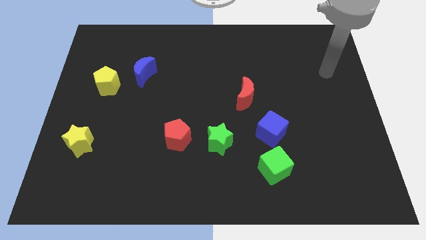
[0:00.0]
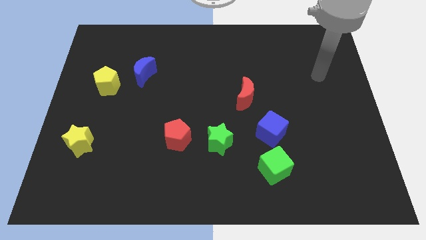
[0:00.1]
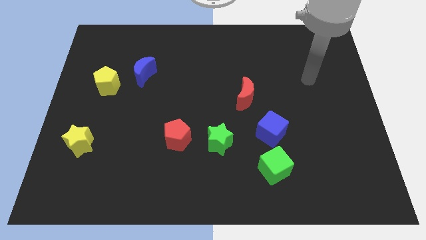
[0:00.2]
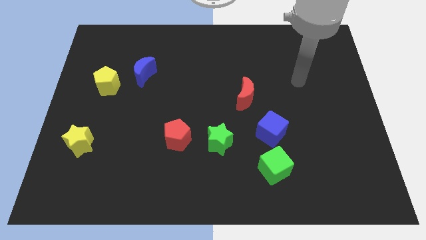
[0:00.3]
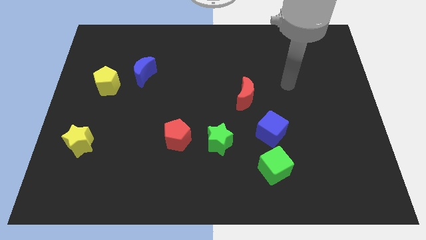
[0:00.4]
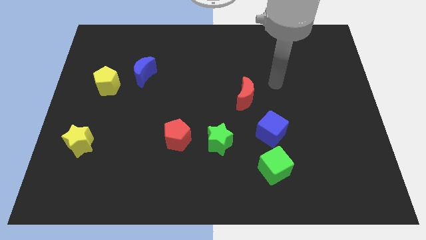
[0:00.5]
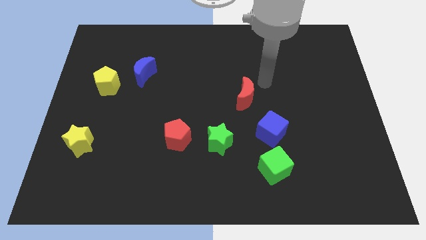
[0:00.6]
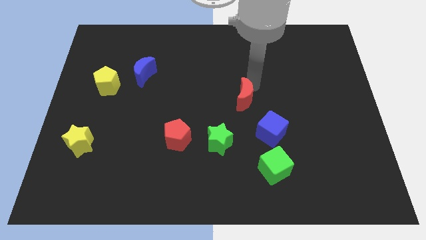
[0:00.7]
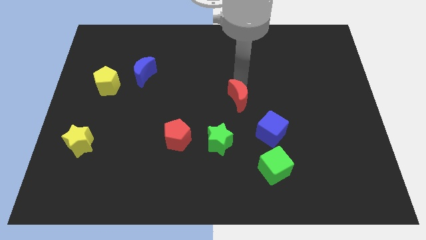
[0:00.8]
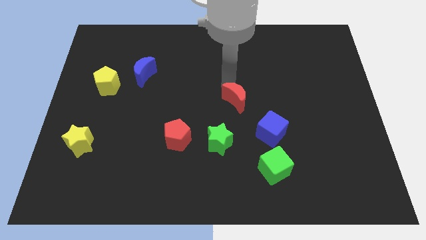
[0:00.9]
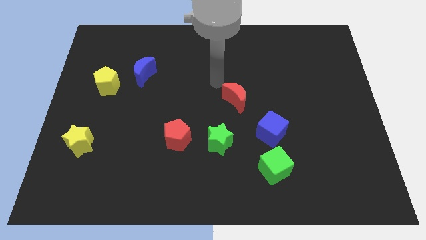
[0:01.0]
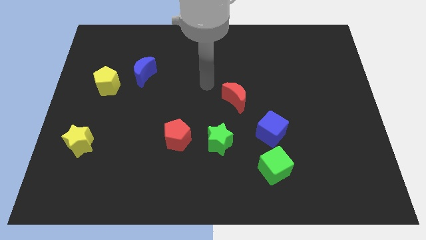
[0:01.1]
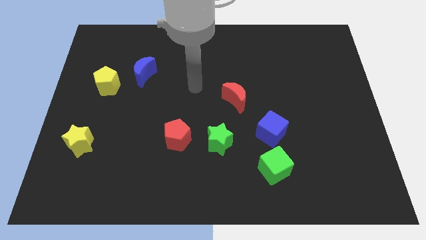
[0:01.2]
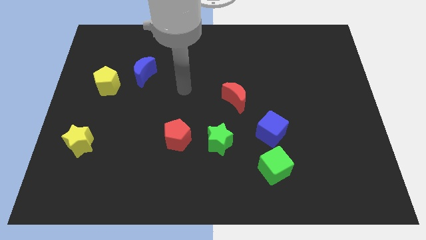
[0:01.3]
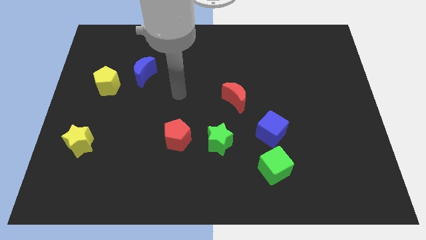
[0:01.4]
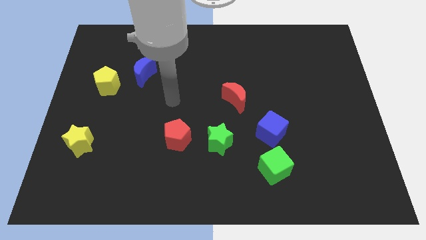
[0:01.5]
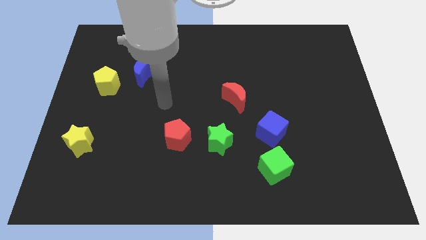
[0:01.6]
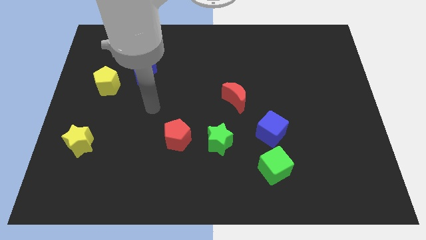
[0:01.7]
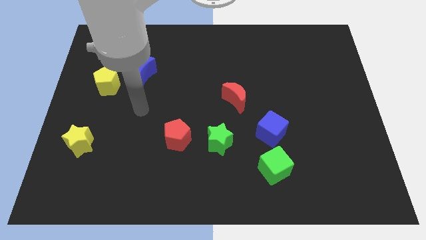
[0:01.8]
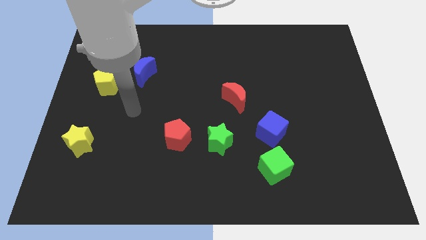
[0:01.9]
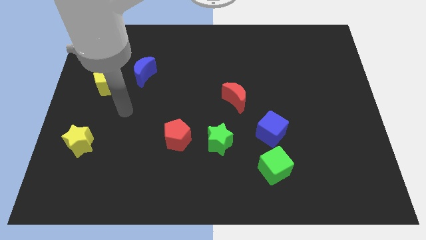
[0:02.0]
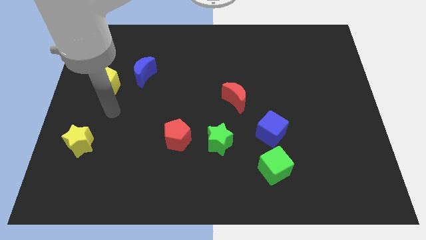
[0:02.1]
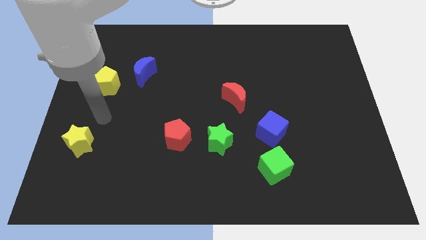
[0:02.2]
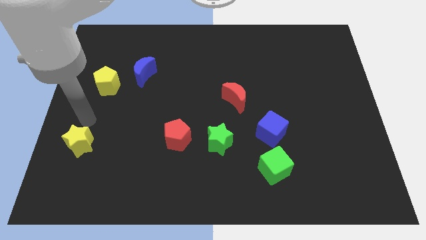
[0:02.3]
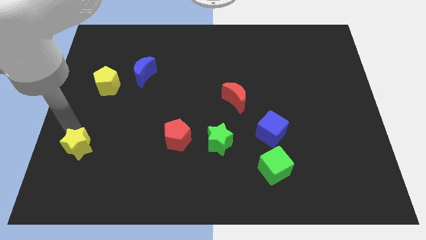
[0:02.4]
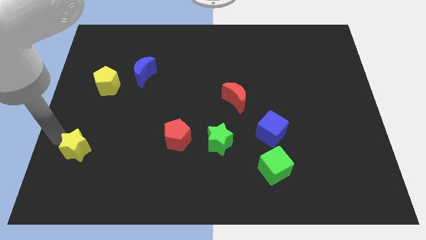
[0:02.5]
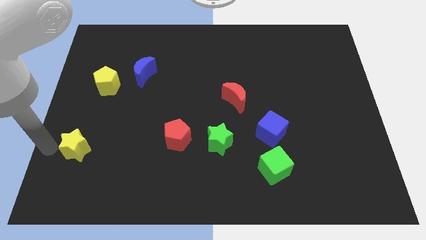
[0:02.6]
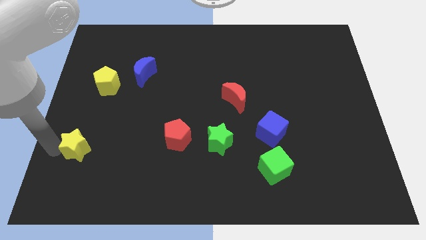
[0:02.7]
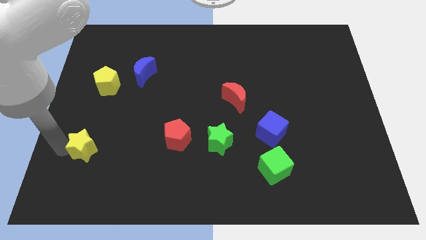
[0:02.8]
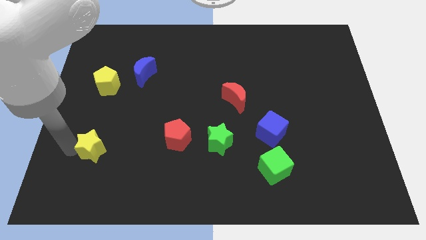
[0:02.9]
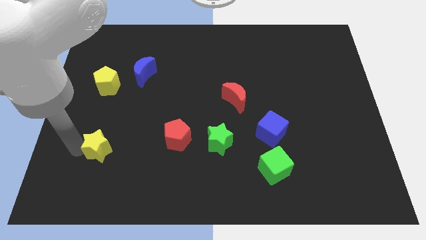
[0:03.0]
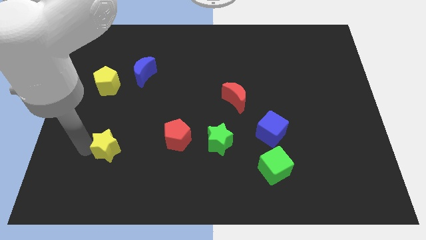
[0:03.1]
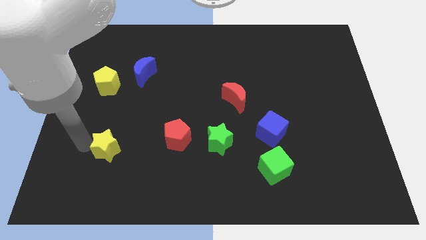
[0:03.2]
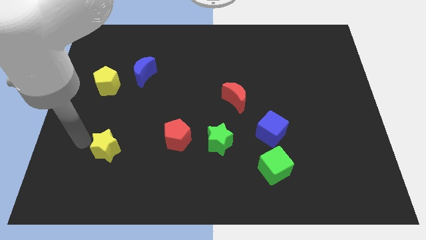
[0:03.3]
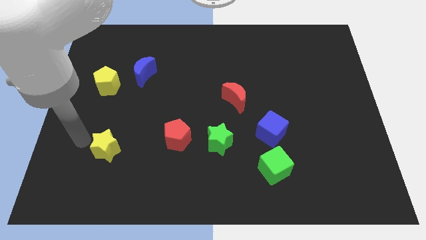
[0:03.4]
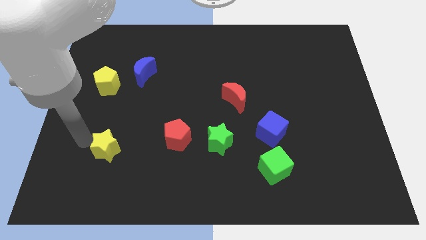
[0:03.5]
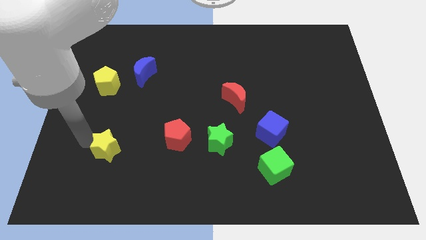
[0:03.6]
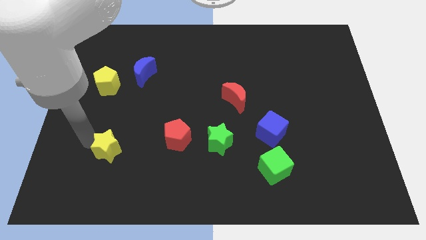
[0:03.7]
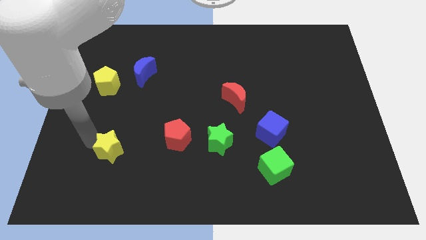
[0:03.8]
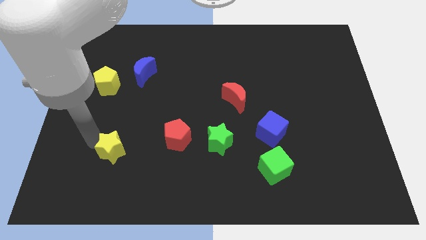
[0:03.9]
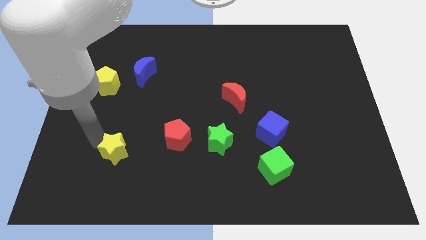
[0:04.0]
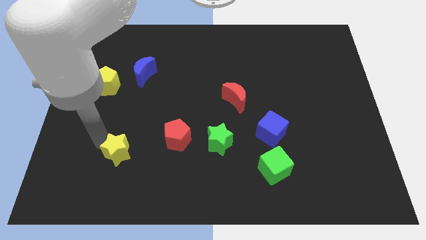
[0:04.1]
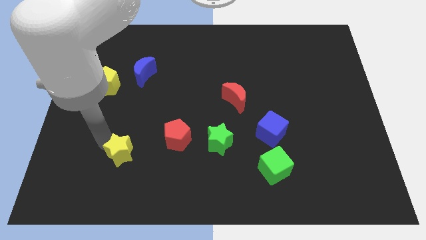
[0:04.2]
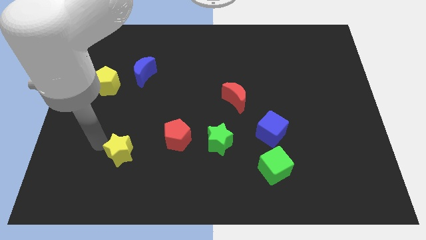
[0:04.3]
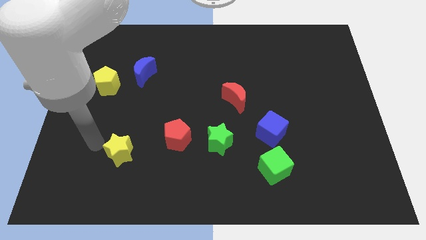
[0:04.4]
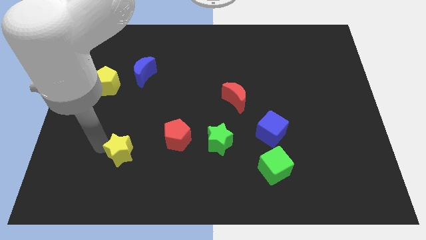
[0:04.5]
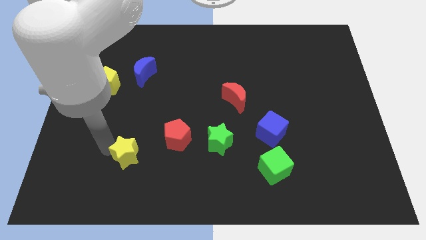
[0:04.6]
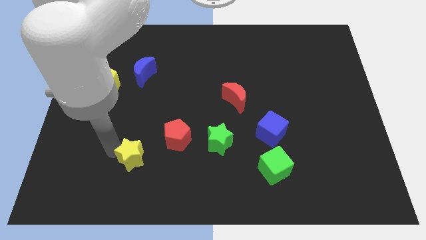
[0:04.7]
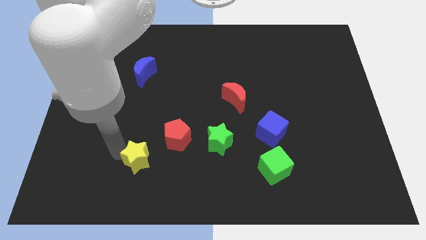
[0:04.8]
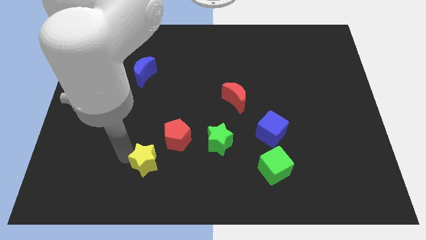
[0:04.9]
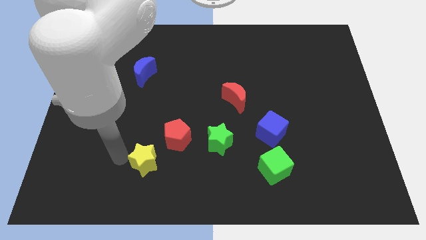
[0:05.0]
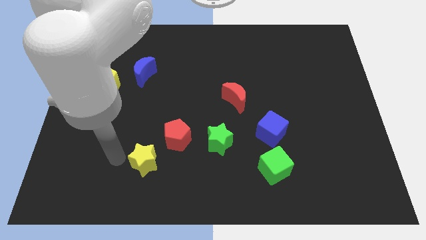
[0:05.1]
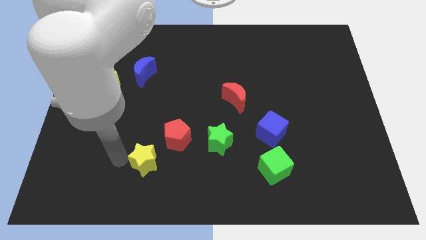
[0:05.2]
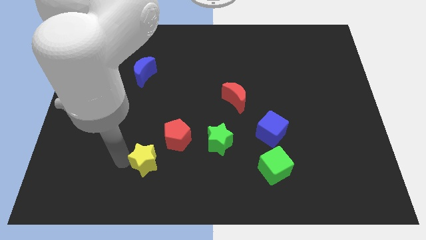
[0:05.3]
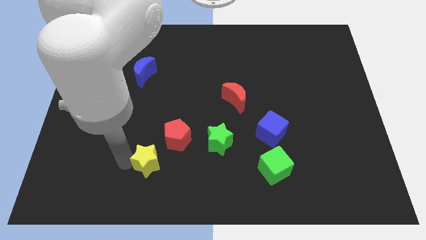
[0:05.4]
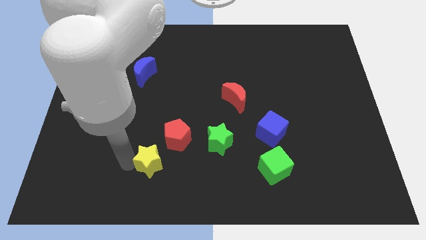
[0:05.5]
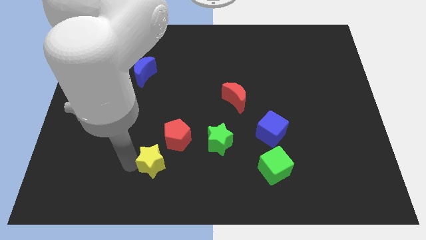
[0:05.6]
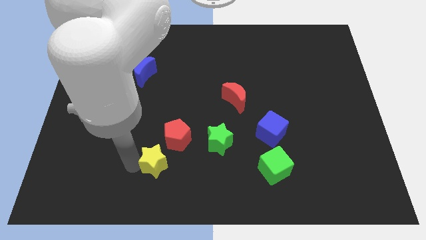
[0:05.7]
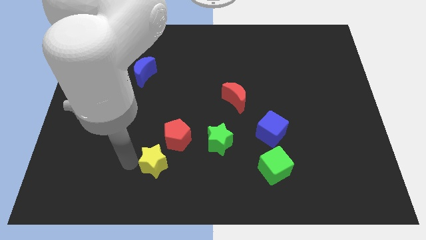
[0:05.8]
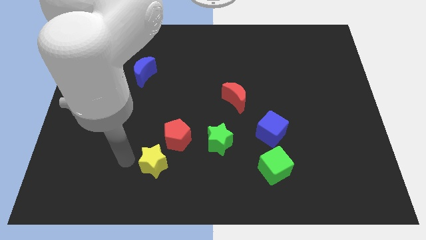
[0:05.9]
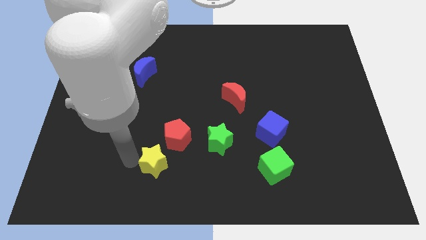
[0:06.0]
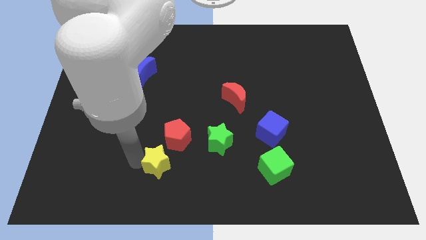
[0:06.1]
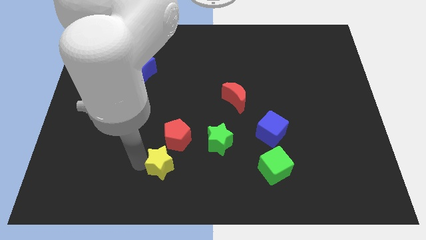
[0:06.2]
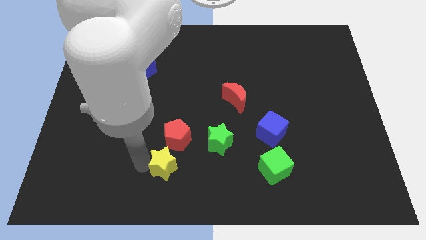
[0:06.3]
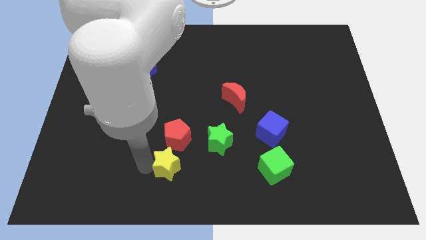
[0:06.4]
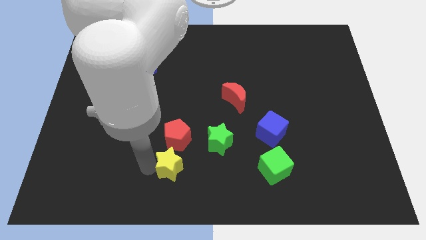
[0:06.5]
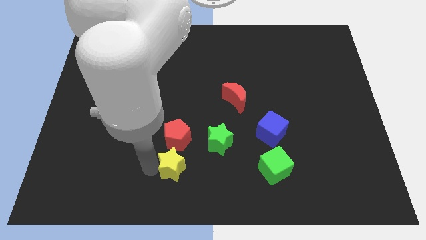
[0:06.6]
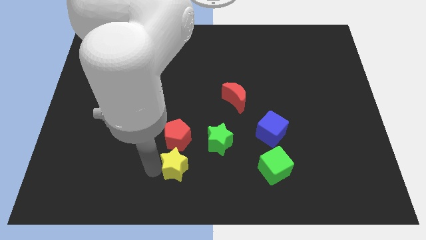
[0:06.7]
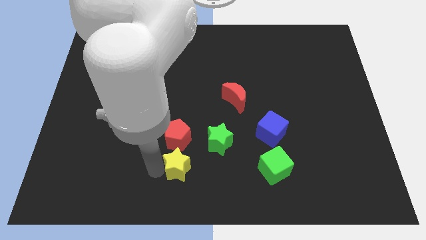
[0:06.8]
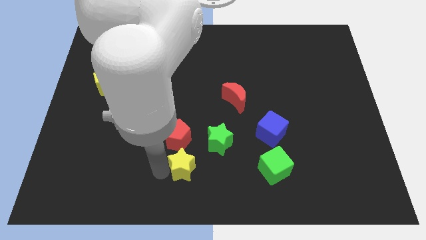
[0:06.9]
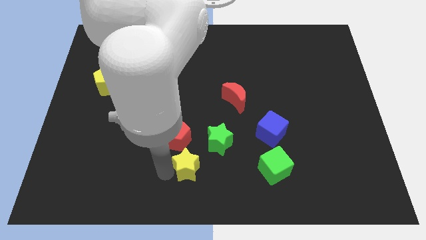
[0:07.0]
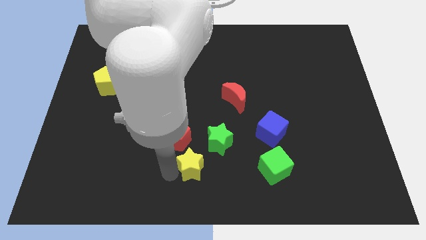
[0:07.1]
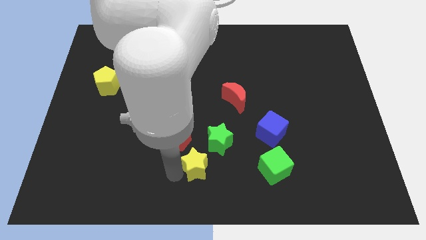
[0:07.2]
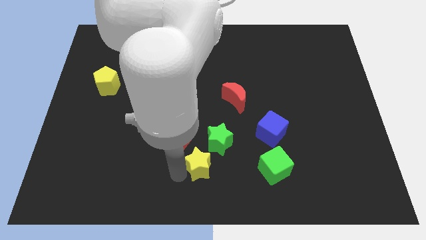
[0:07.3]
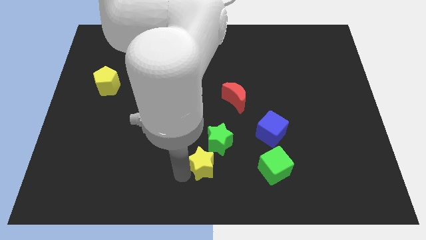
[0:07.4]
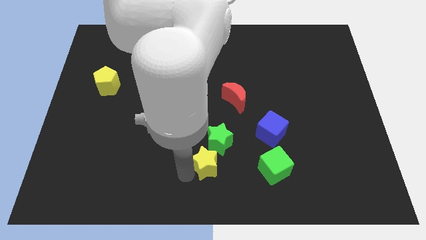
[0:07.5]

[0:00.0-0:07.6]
put the yellow star towards the green star
